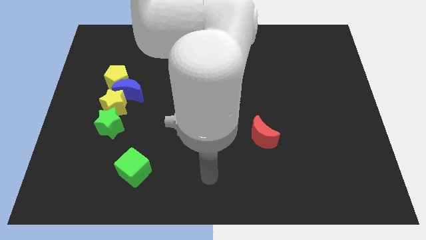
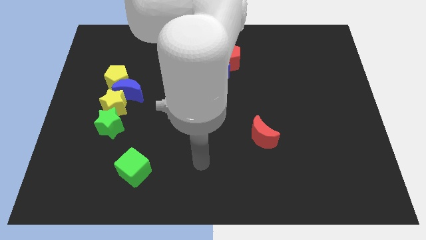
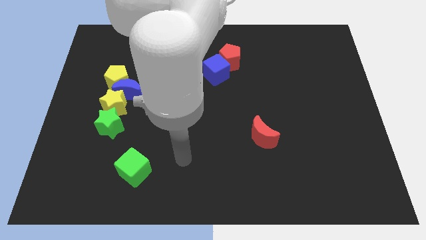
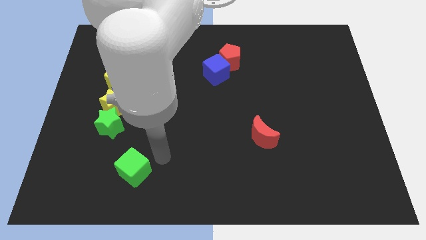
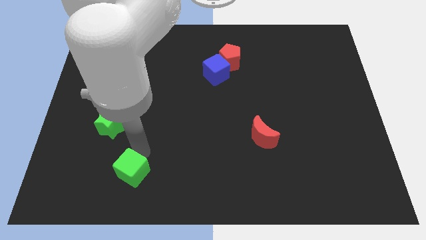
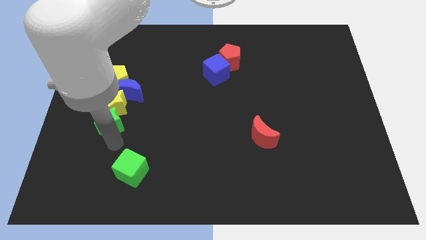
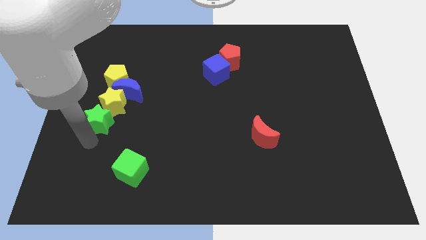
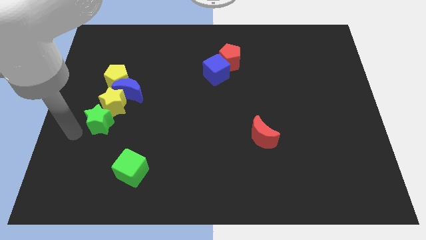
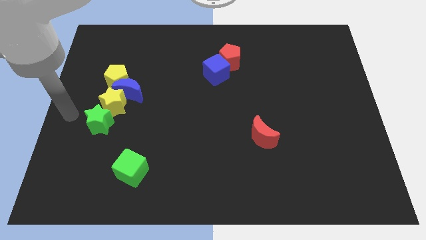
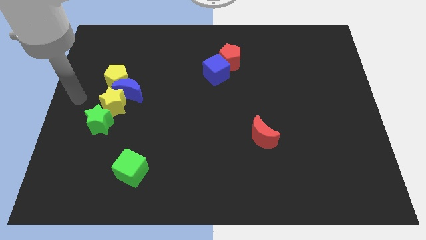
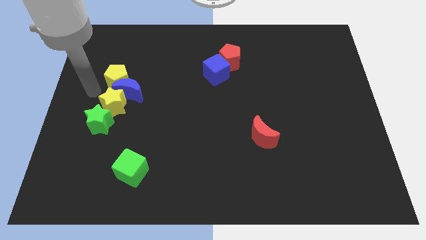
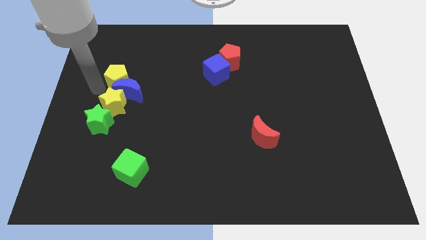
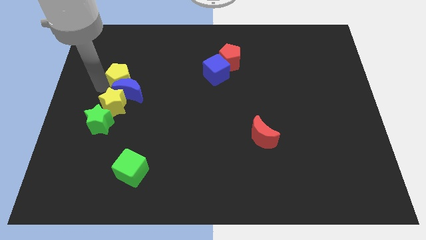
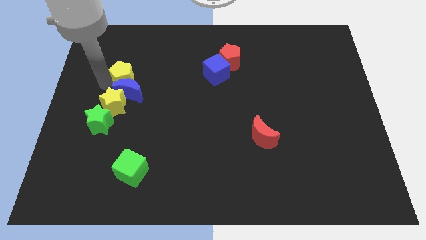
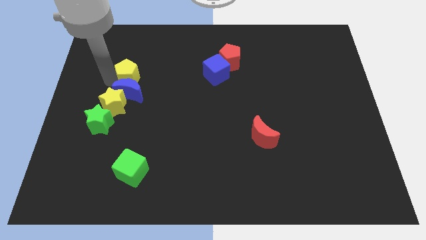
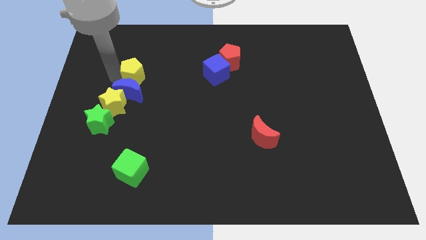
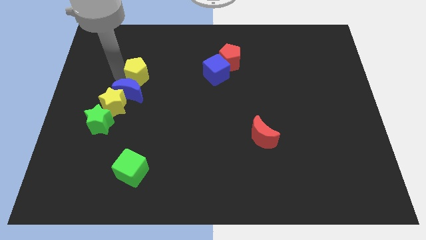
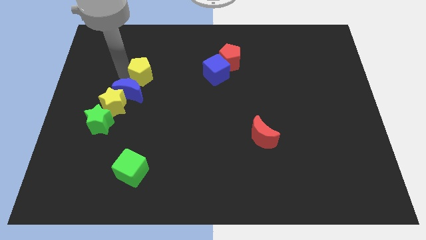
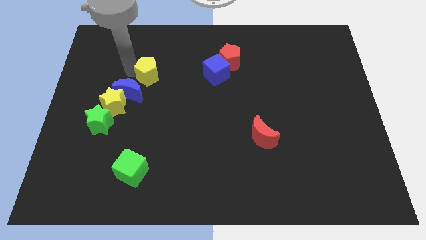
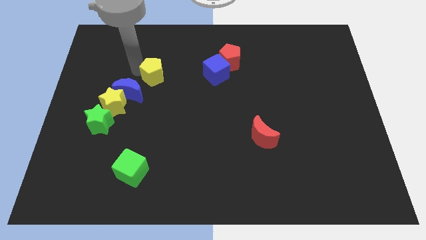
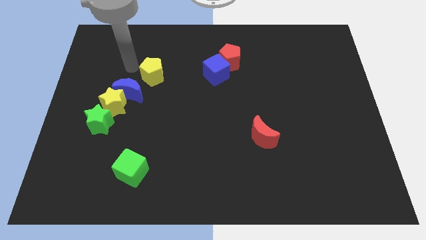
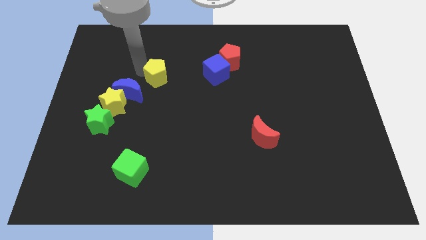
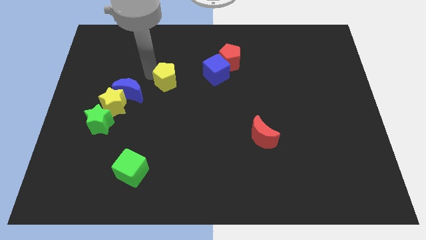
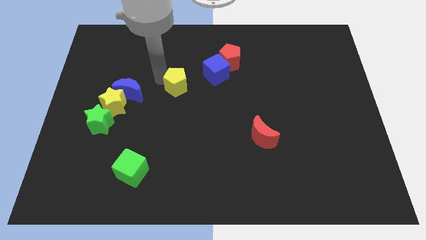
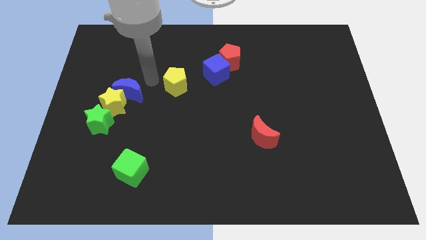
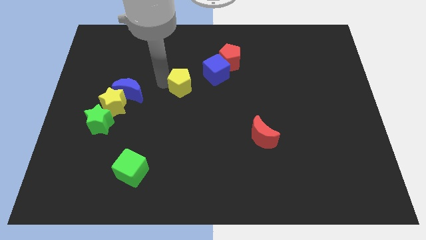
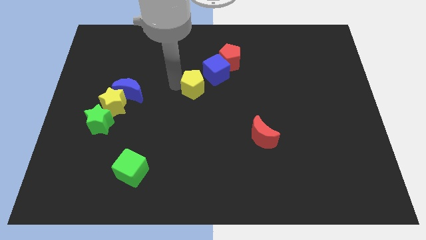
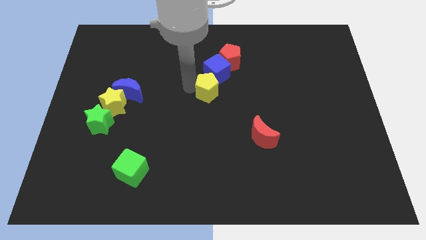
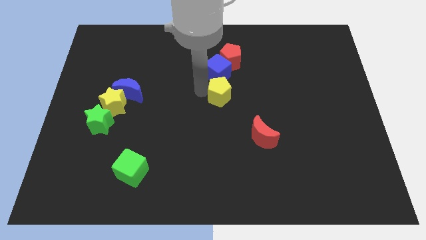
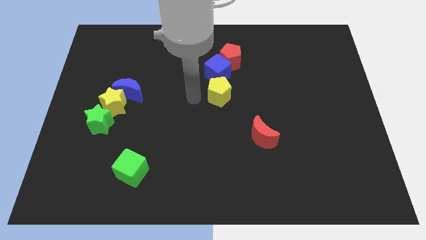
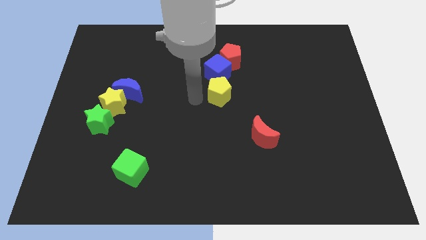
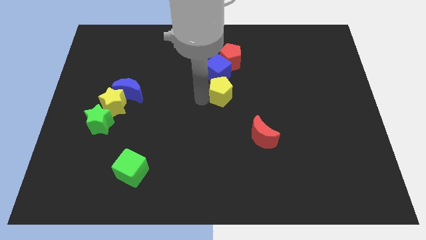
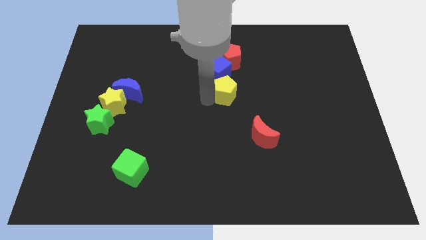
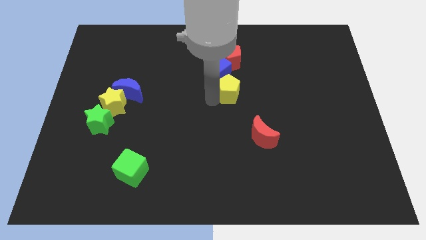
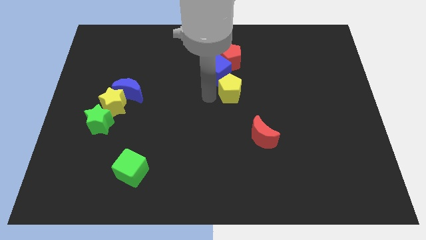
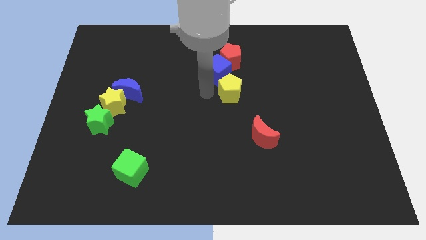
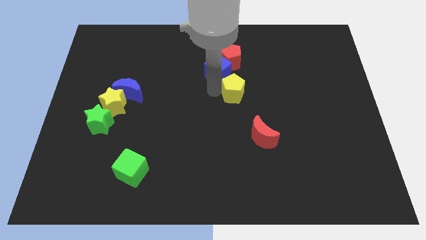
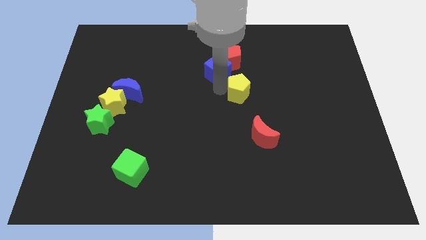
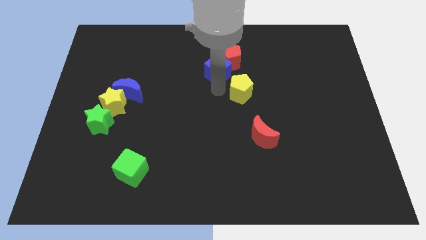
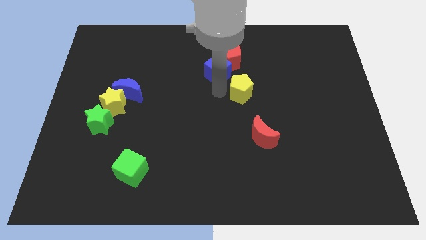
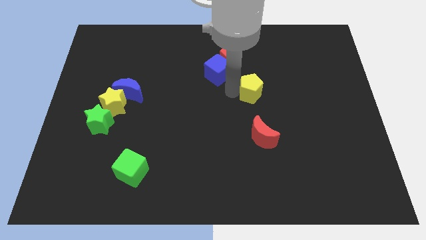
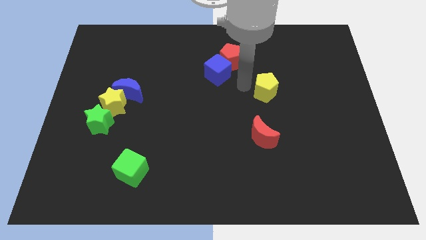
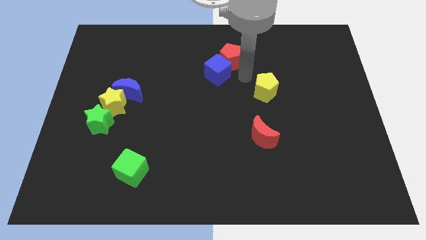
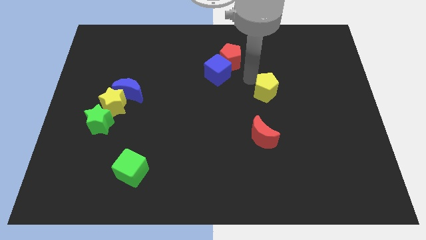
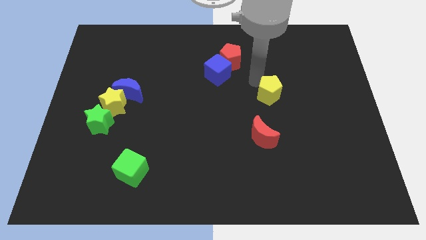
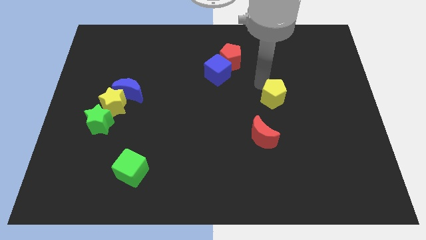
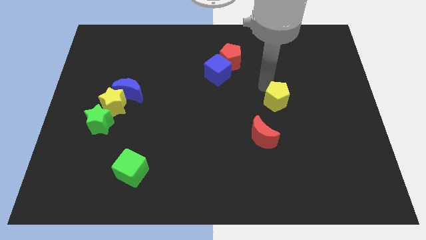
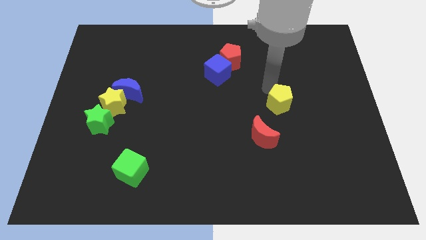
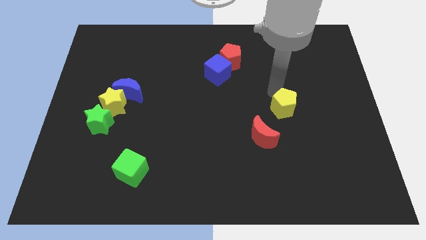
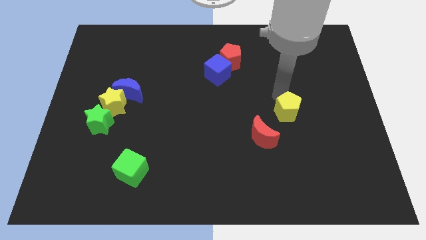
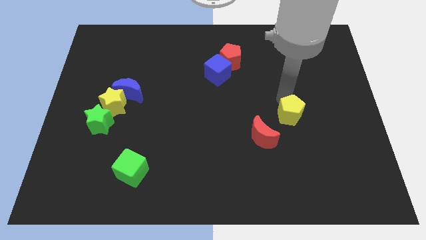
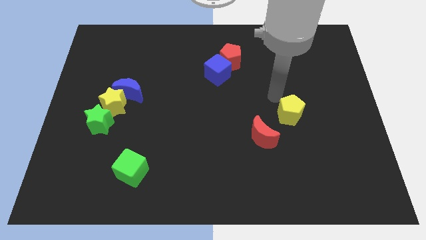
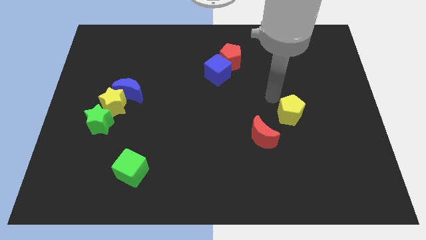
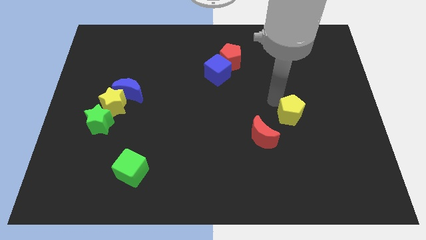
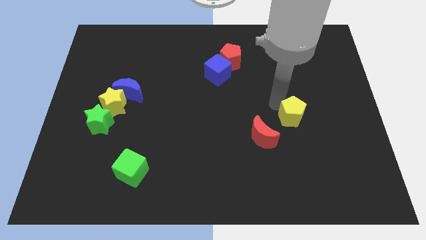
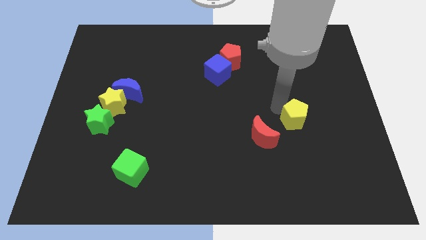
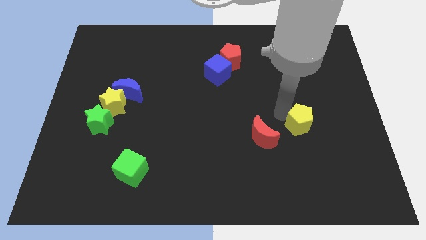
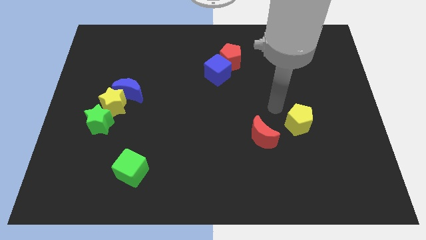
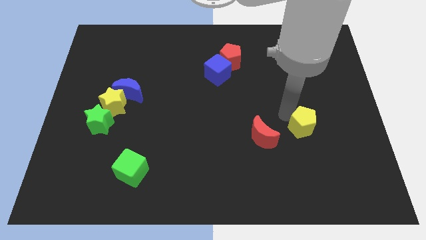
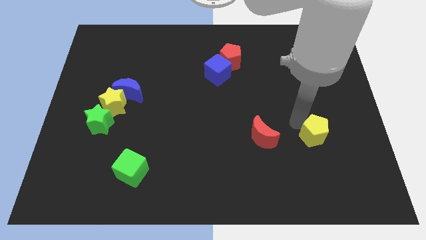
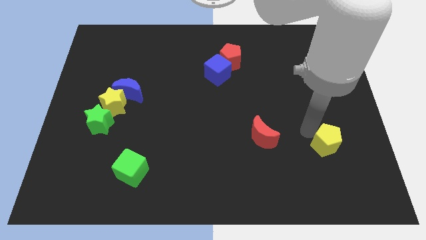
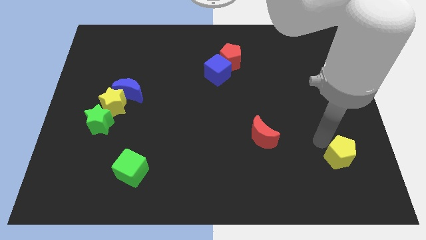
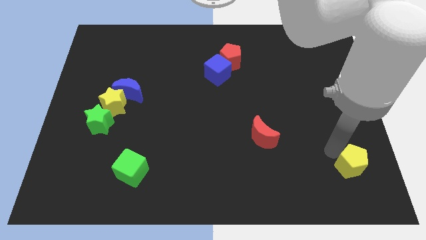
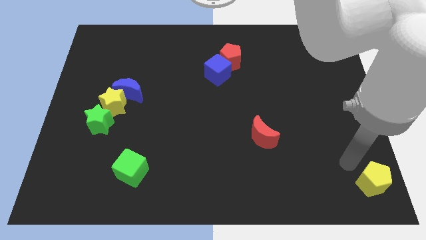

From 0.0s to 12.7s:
slide the yellow pentagon to the lower right corner

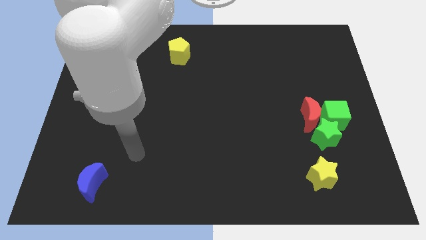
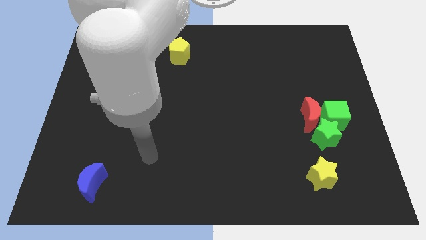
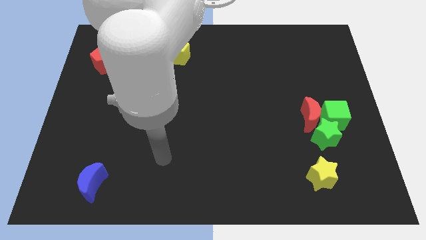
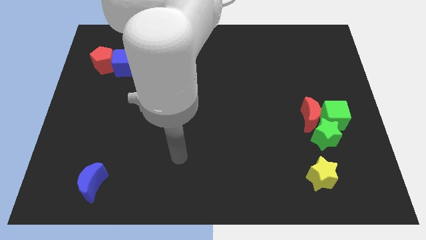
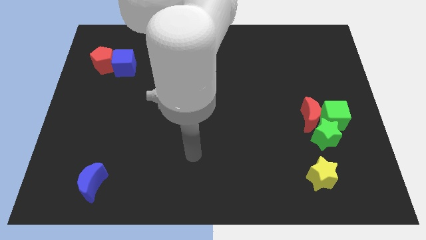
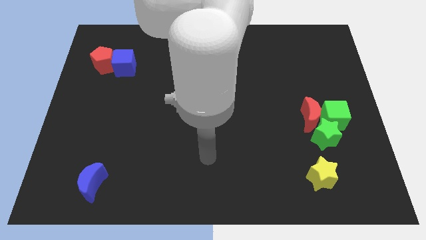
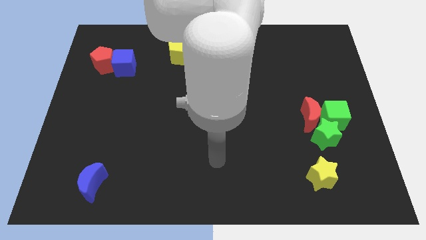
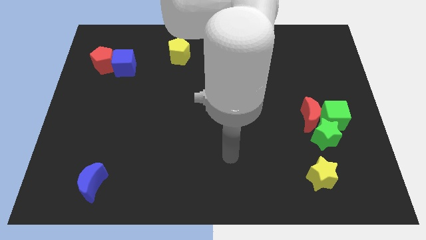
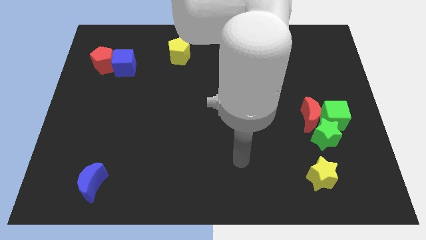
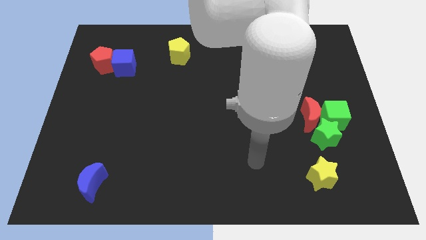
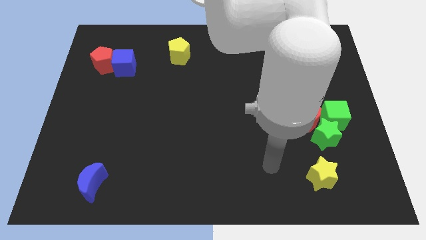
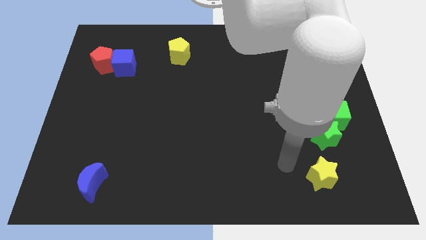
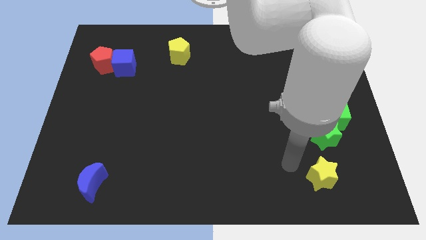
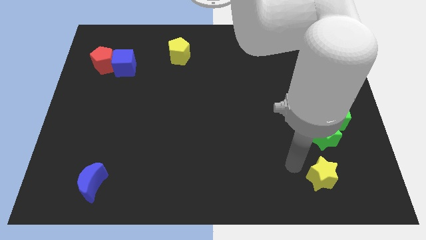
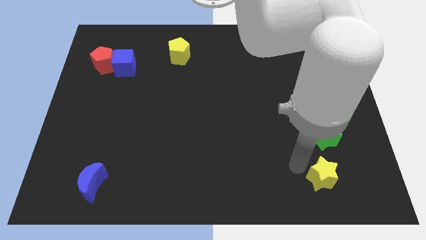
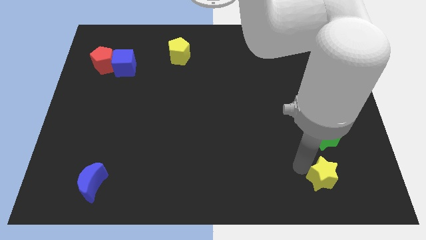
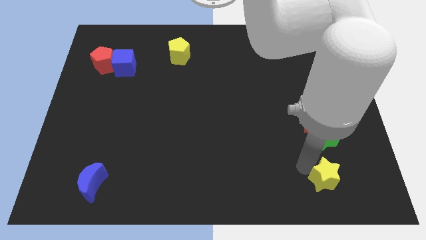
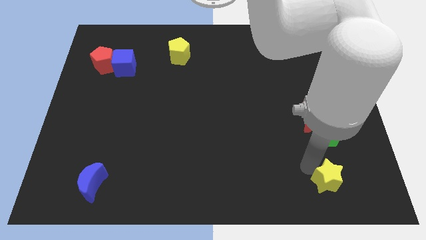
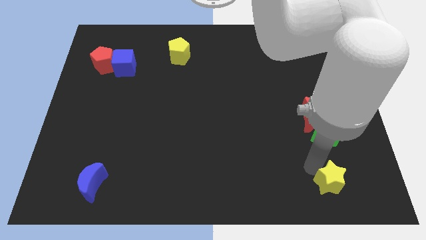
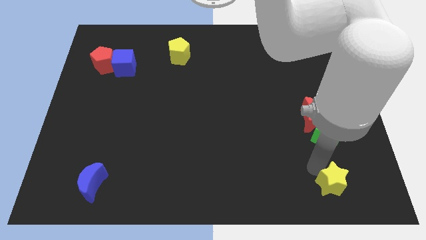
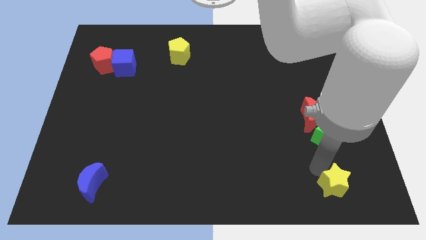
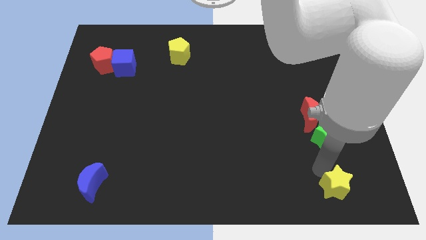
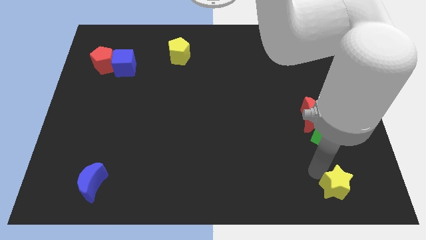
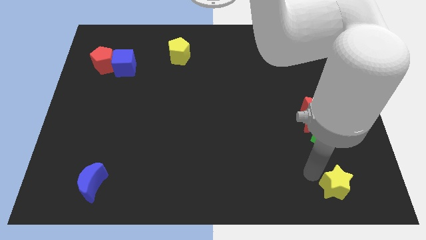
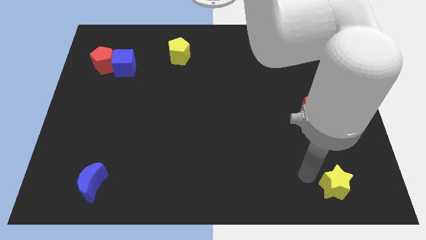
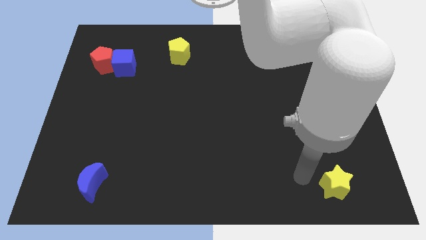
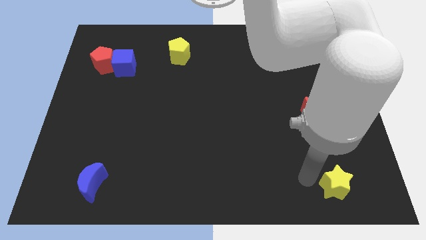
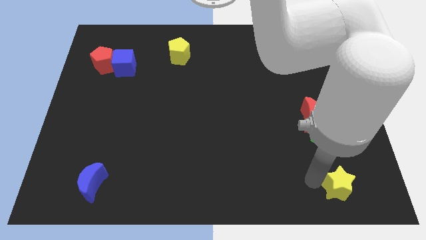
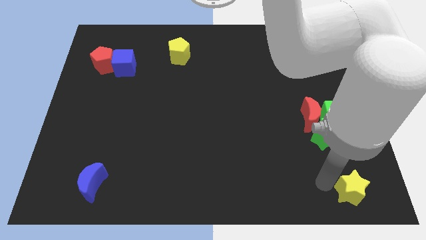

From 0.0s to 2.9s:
put the yellow star to the bottom right corner
